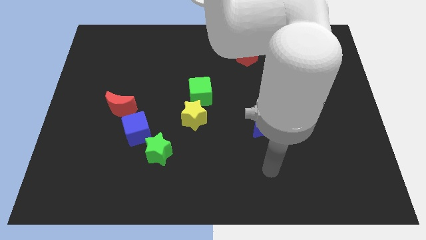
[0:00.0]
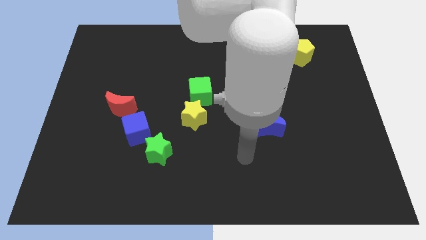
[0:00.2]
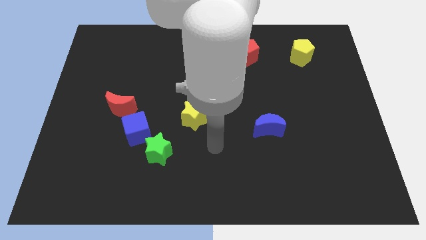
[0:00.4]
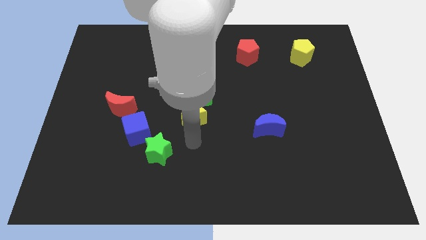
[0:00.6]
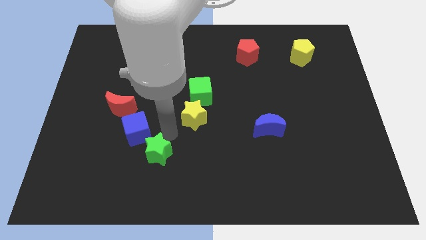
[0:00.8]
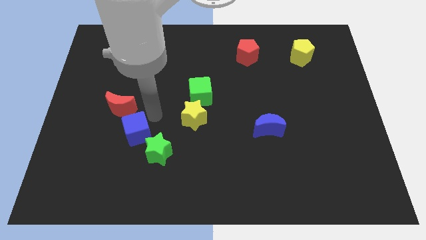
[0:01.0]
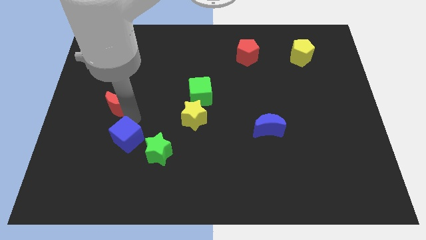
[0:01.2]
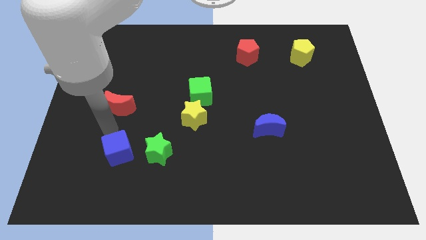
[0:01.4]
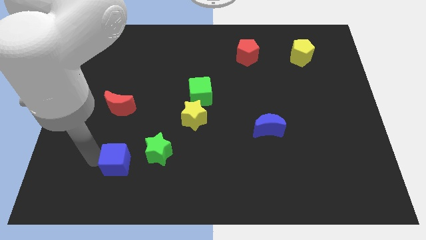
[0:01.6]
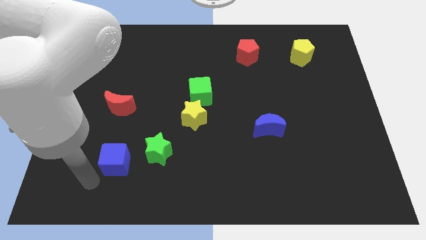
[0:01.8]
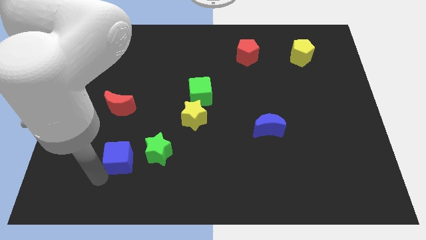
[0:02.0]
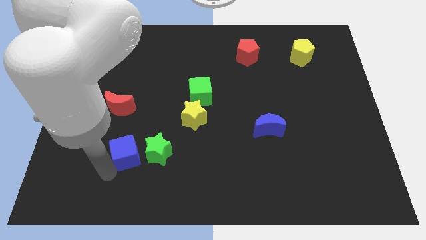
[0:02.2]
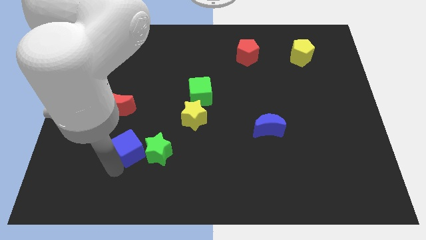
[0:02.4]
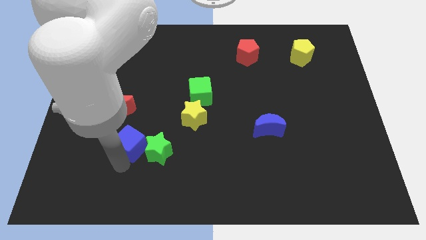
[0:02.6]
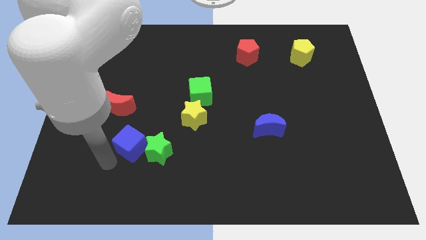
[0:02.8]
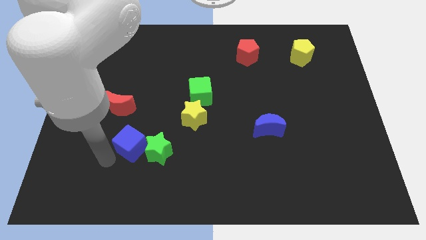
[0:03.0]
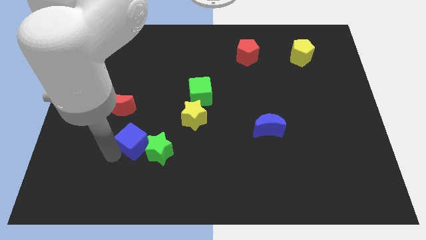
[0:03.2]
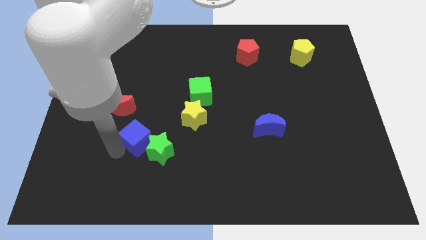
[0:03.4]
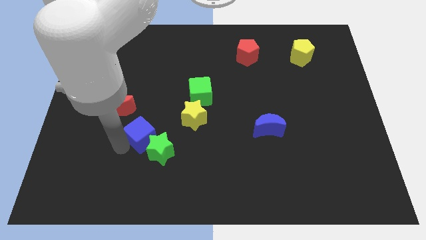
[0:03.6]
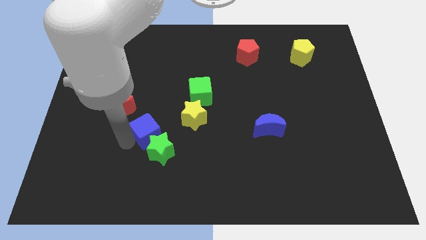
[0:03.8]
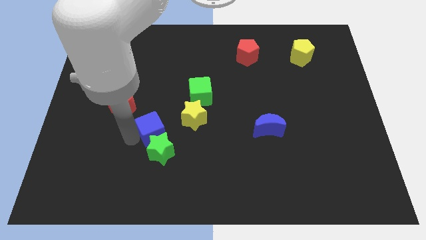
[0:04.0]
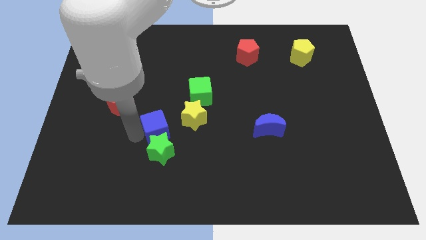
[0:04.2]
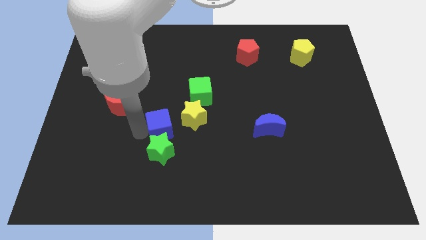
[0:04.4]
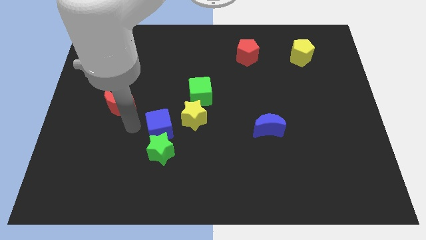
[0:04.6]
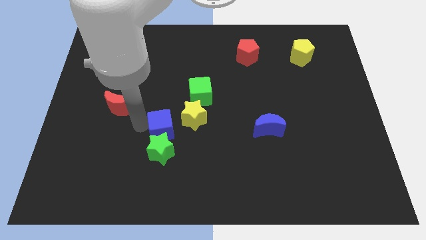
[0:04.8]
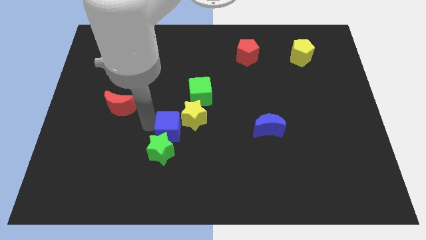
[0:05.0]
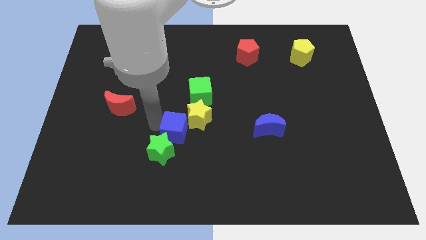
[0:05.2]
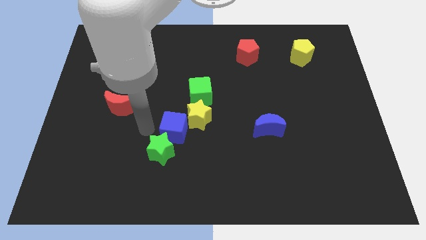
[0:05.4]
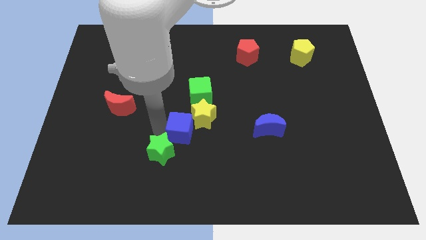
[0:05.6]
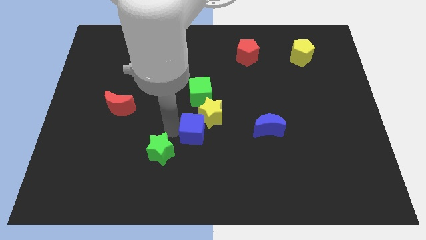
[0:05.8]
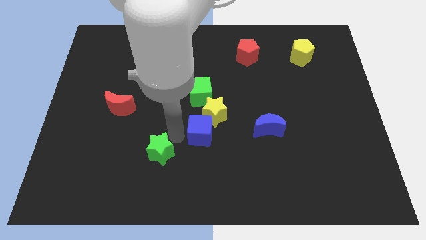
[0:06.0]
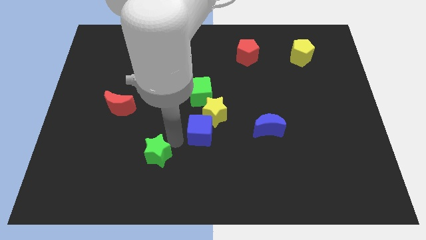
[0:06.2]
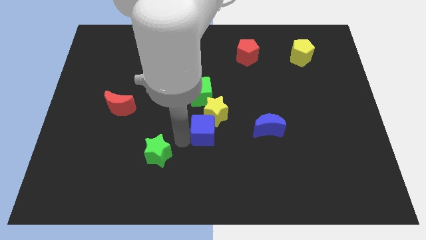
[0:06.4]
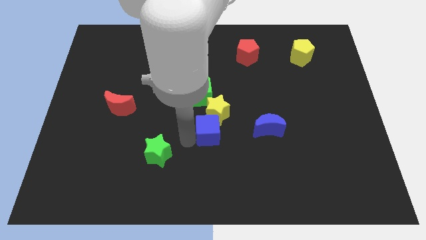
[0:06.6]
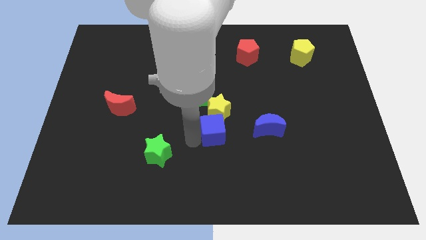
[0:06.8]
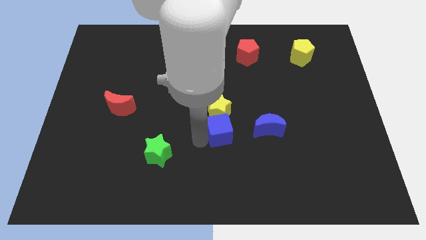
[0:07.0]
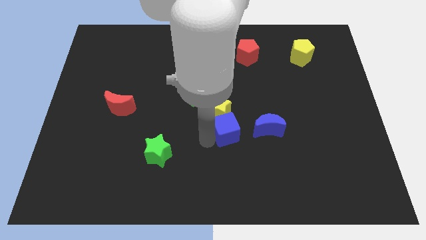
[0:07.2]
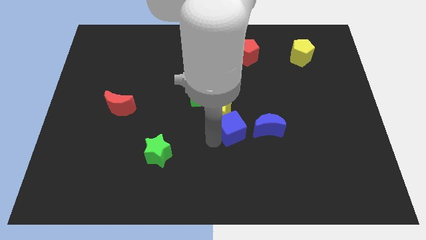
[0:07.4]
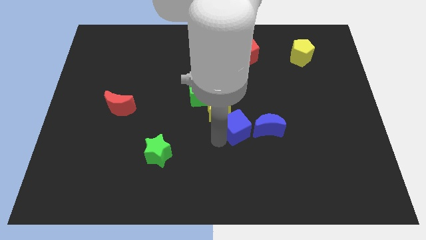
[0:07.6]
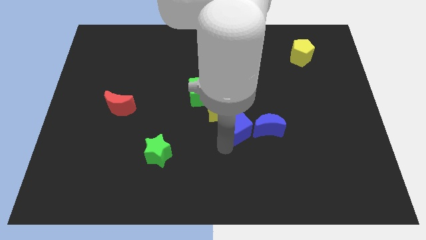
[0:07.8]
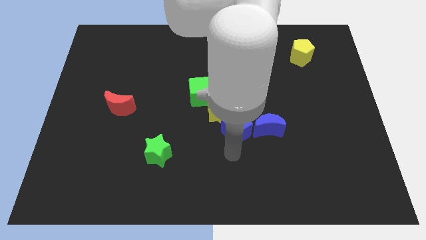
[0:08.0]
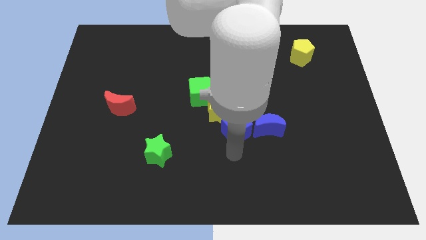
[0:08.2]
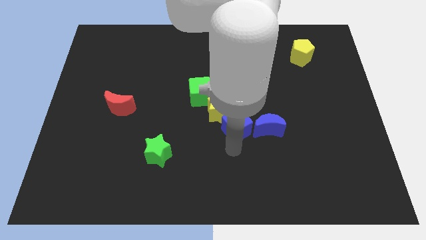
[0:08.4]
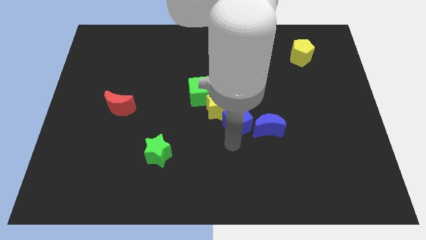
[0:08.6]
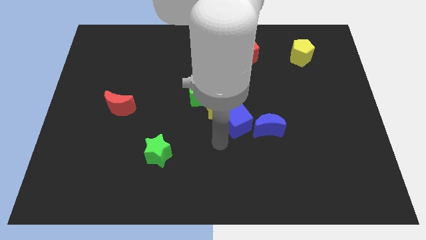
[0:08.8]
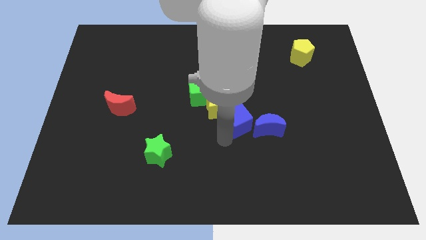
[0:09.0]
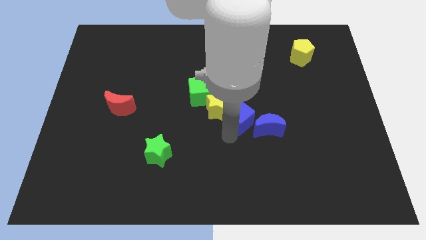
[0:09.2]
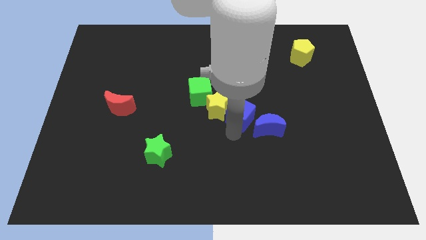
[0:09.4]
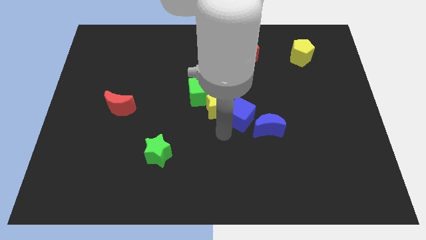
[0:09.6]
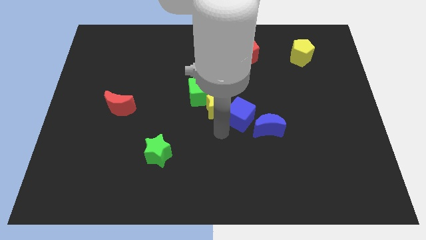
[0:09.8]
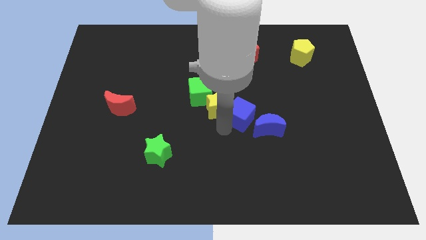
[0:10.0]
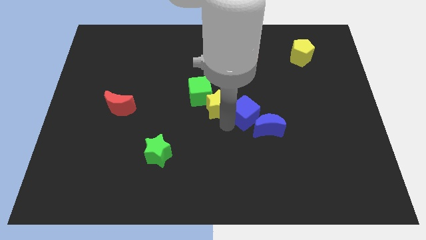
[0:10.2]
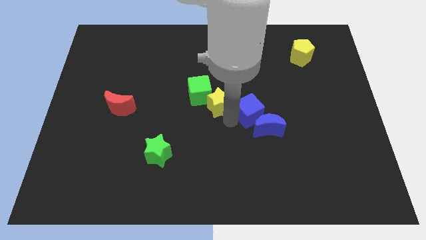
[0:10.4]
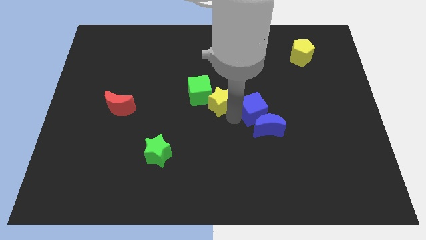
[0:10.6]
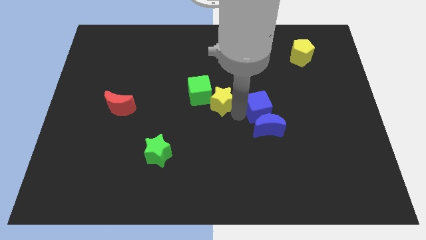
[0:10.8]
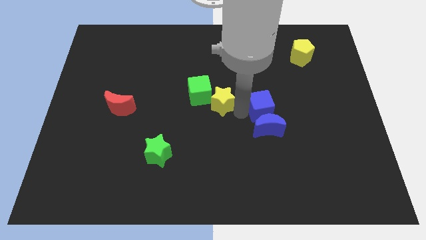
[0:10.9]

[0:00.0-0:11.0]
slide the blue cube to the top right side of the blue moon

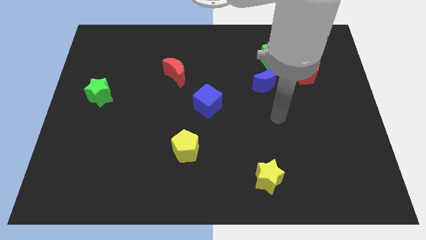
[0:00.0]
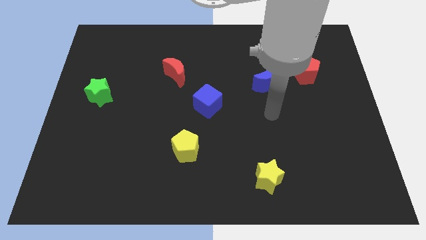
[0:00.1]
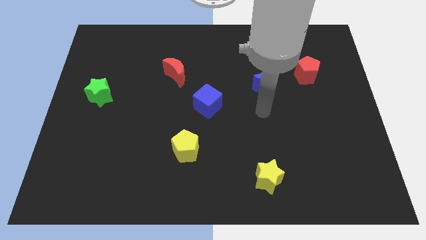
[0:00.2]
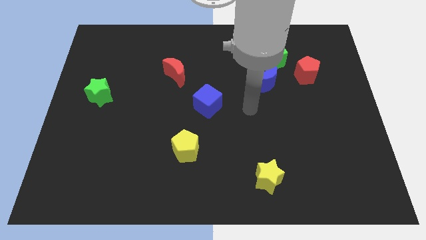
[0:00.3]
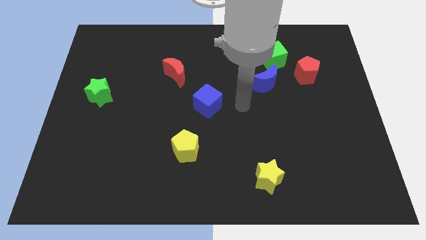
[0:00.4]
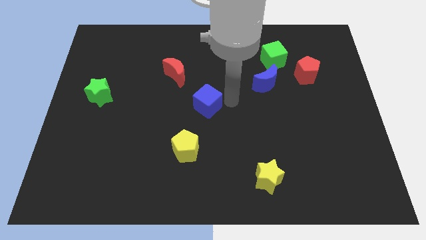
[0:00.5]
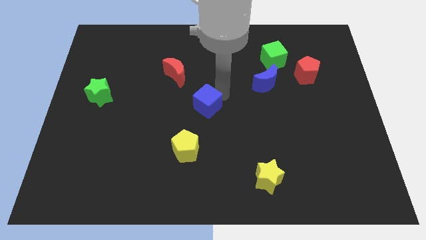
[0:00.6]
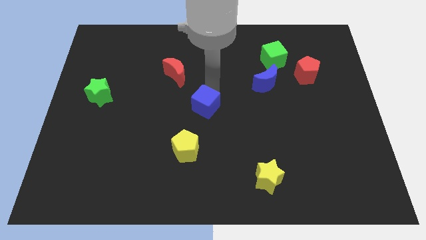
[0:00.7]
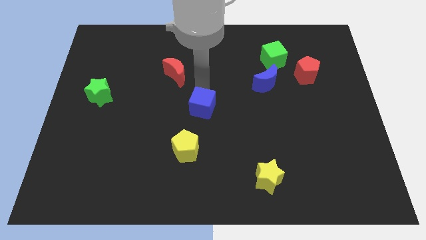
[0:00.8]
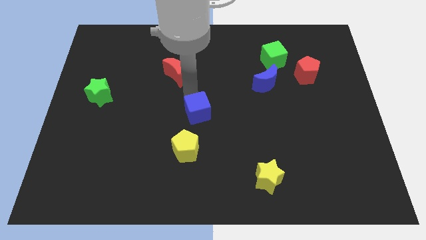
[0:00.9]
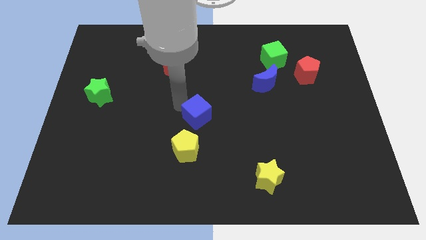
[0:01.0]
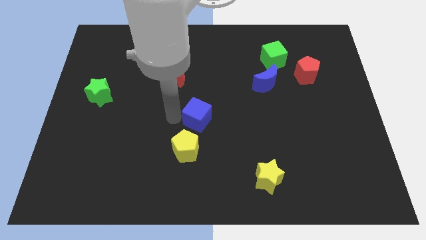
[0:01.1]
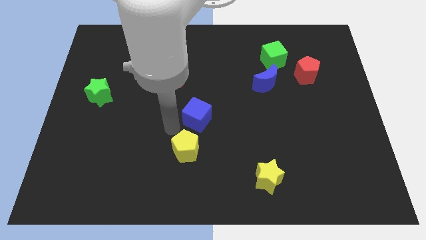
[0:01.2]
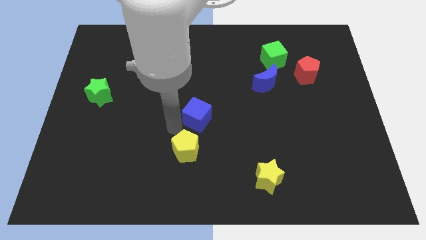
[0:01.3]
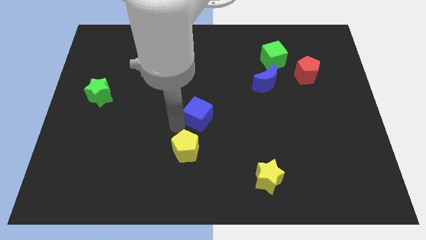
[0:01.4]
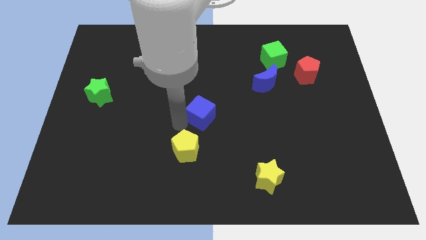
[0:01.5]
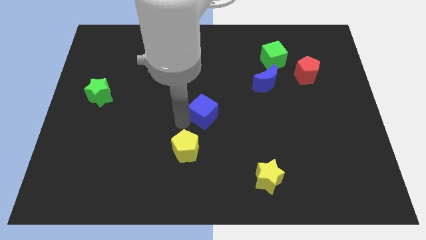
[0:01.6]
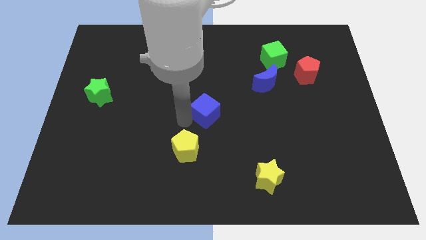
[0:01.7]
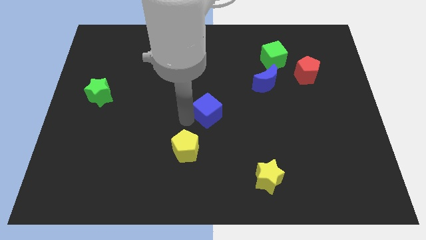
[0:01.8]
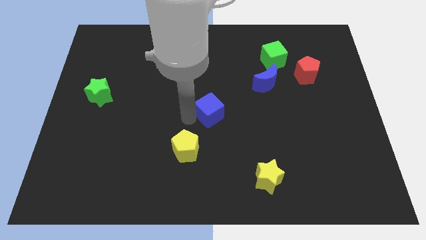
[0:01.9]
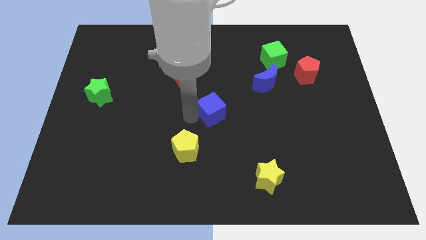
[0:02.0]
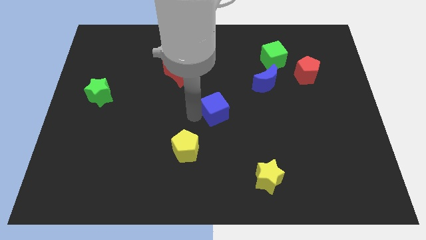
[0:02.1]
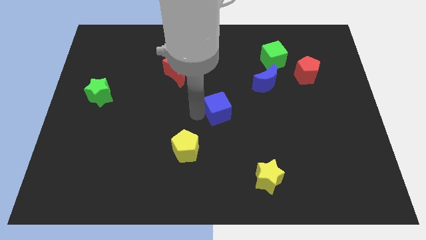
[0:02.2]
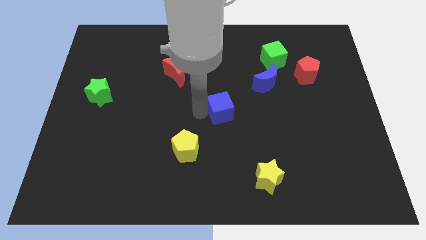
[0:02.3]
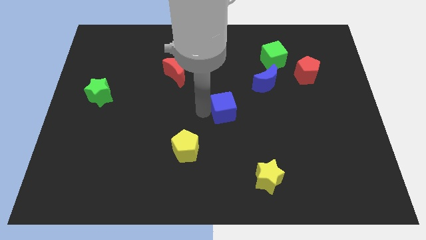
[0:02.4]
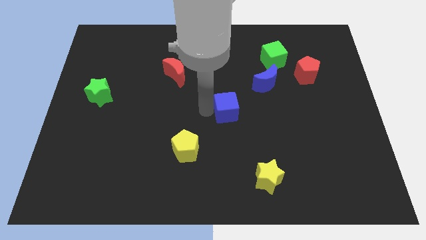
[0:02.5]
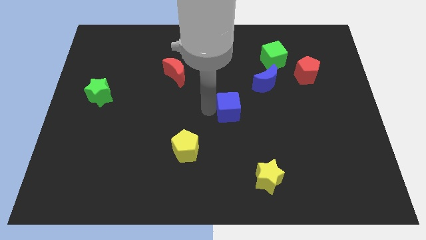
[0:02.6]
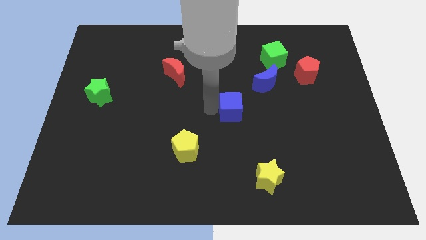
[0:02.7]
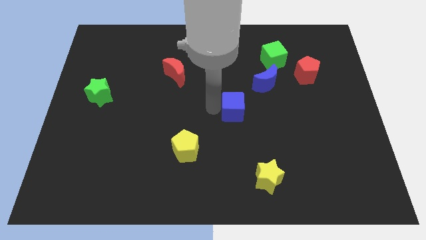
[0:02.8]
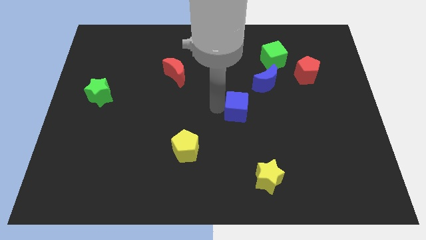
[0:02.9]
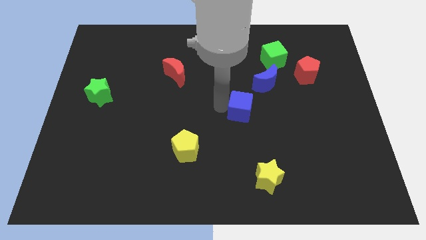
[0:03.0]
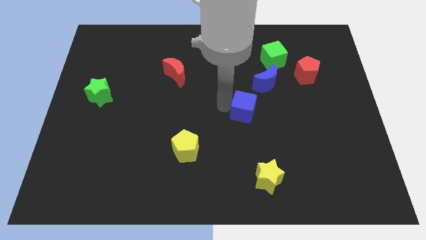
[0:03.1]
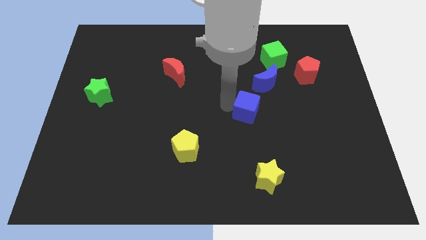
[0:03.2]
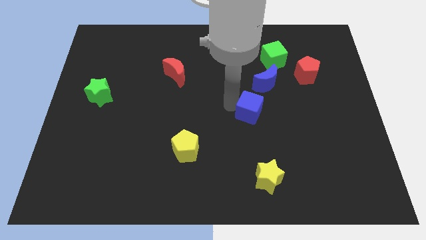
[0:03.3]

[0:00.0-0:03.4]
slide the blue cube below the blue moon
